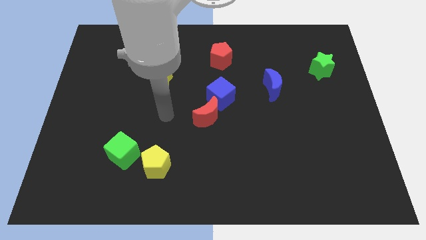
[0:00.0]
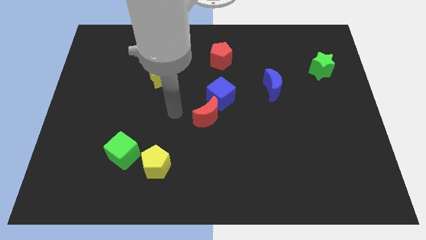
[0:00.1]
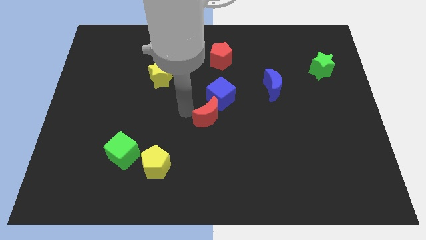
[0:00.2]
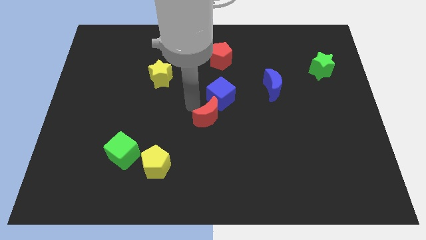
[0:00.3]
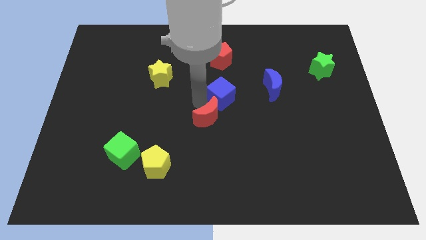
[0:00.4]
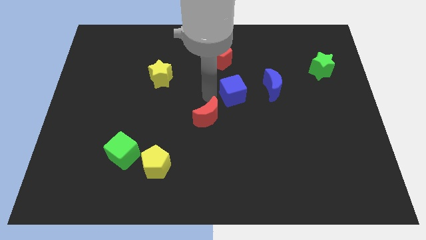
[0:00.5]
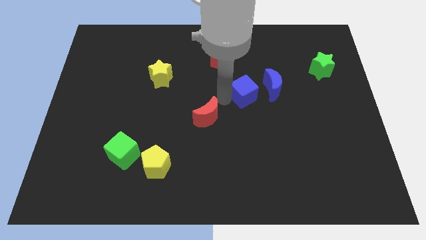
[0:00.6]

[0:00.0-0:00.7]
pull the red moon apart from the blue cube

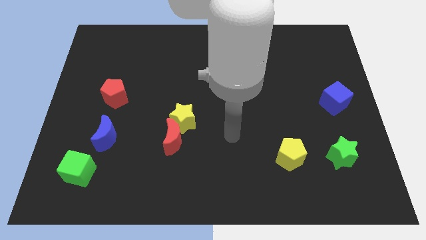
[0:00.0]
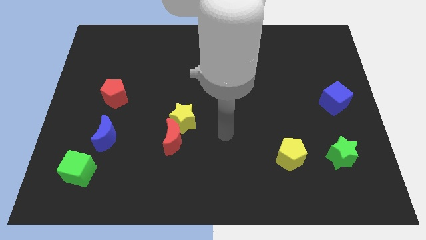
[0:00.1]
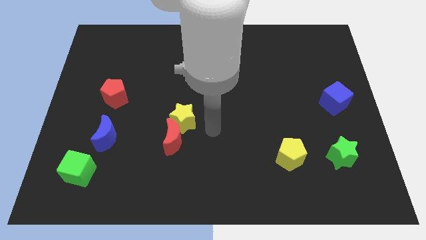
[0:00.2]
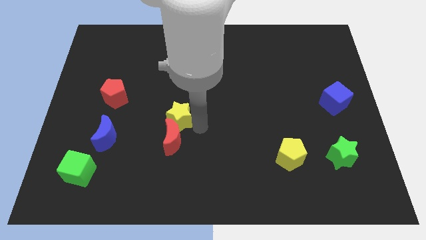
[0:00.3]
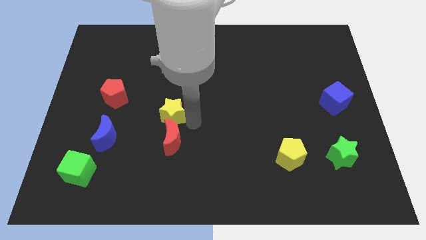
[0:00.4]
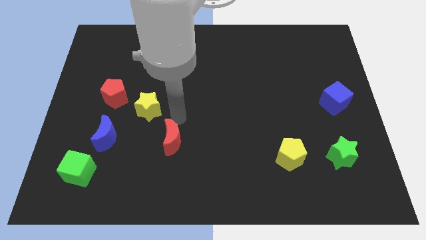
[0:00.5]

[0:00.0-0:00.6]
separate the red moon from the yellow star

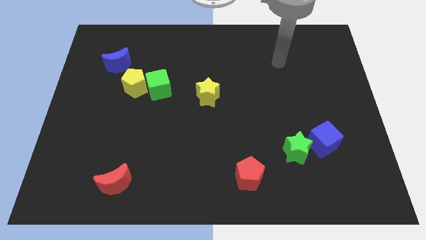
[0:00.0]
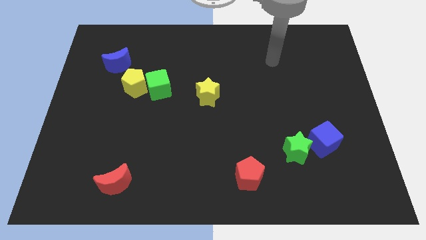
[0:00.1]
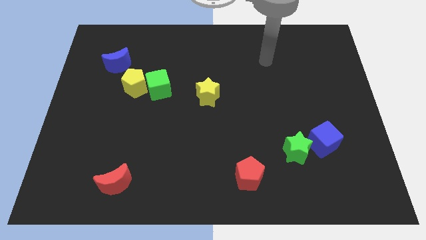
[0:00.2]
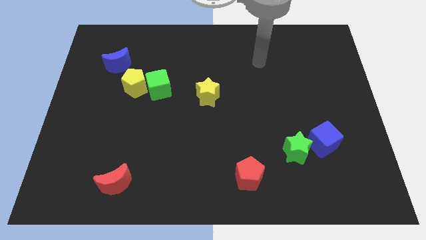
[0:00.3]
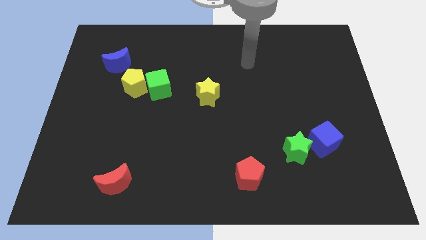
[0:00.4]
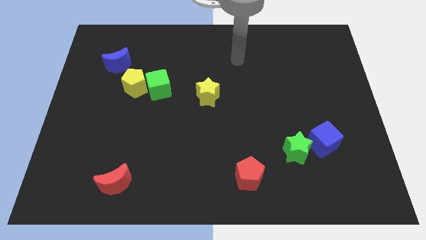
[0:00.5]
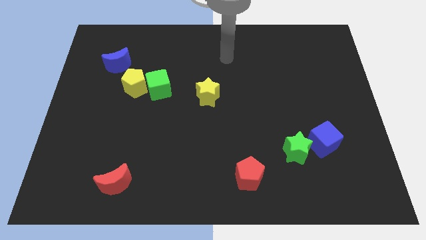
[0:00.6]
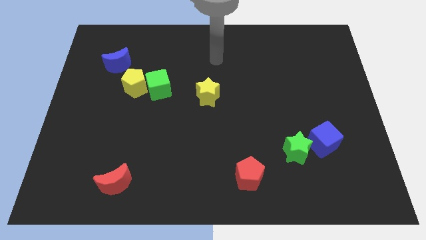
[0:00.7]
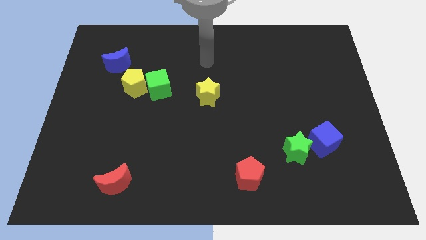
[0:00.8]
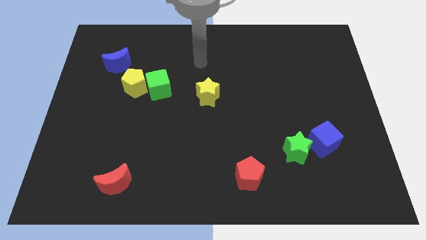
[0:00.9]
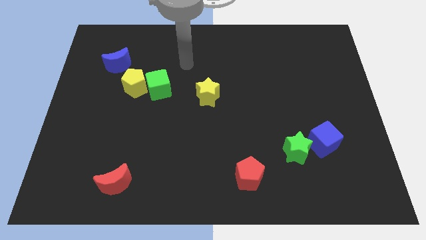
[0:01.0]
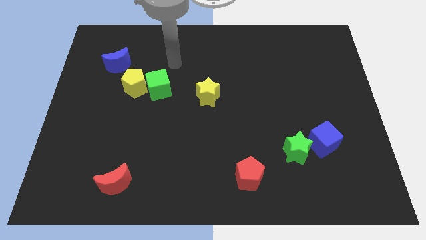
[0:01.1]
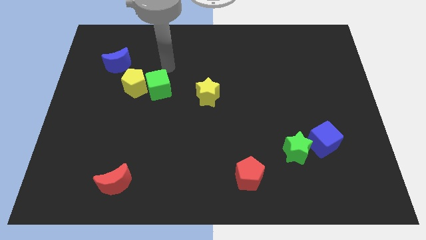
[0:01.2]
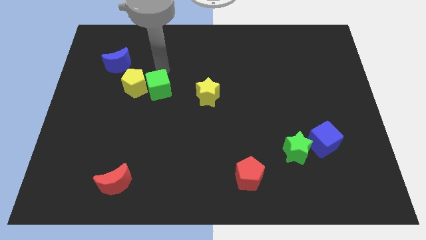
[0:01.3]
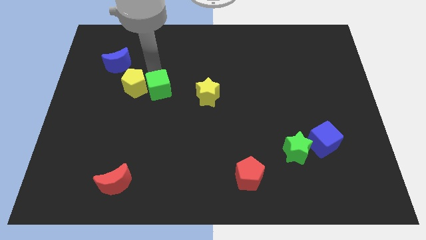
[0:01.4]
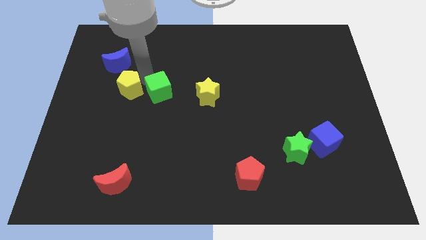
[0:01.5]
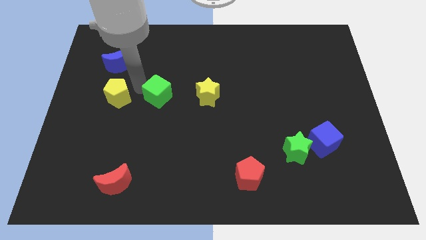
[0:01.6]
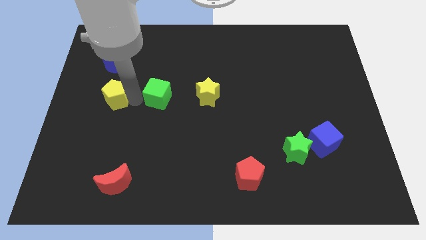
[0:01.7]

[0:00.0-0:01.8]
separate the green cube from the yellow pentagon

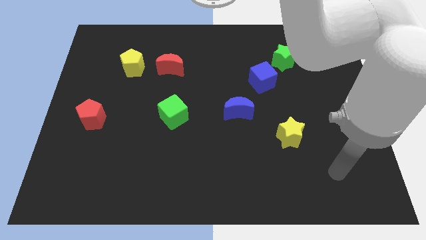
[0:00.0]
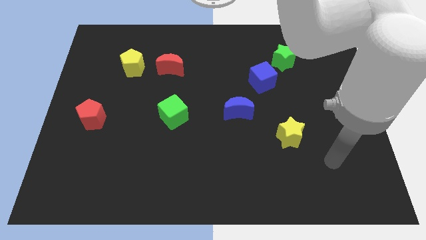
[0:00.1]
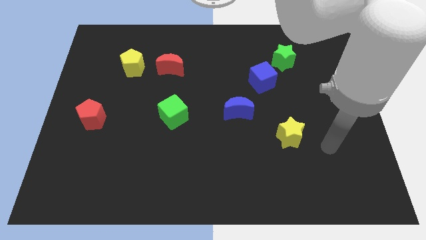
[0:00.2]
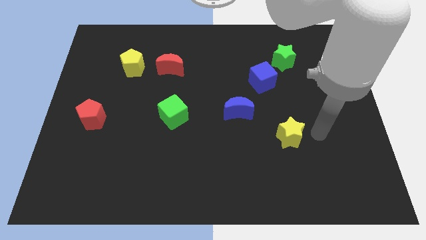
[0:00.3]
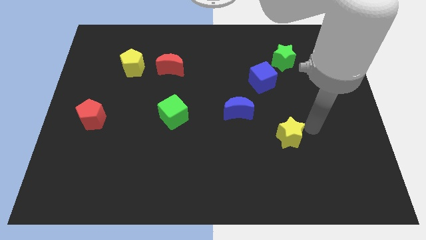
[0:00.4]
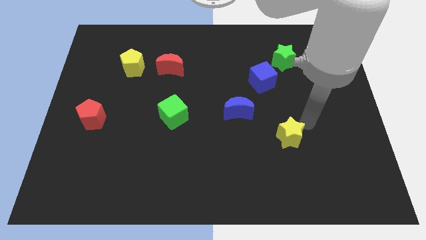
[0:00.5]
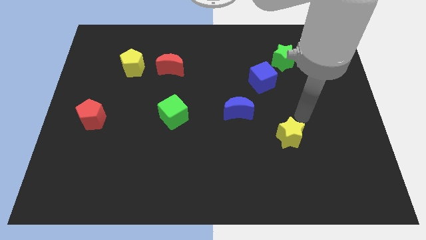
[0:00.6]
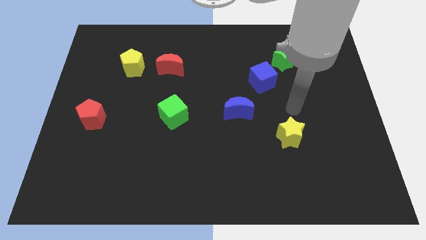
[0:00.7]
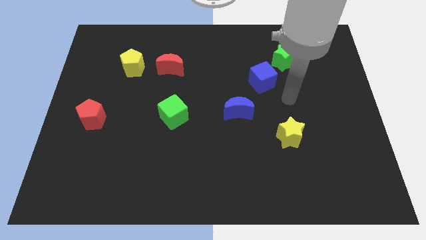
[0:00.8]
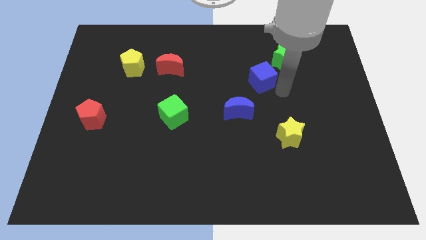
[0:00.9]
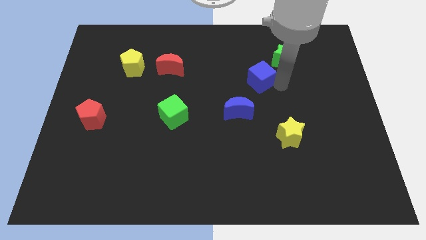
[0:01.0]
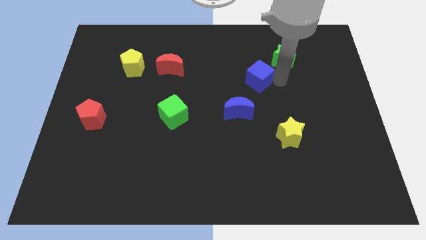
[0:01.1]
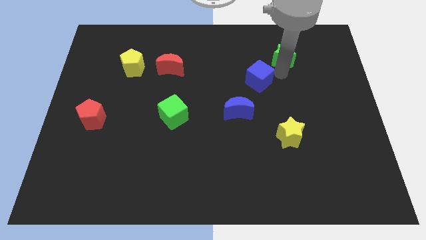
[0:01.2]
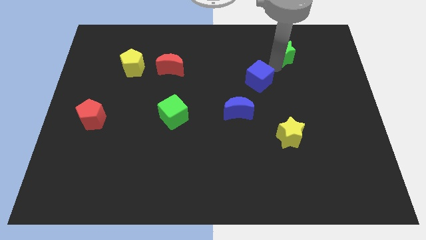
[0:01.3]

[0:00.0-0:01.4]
move the blue cube away from the green star

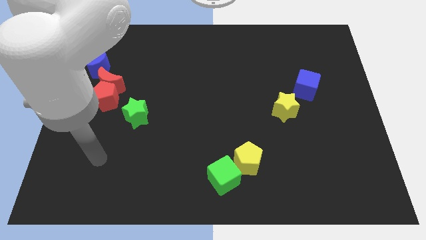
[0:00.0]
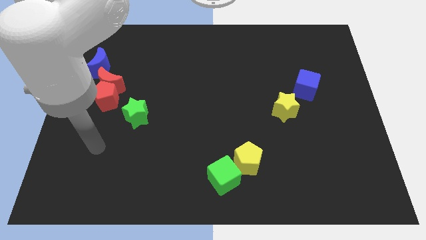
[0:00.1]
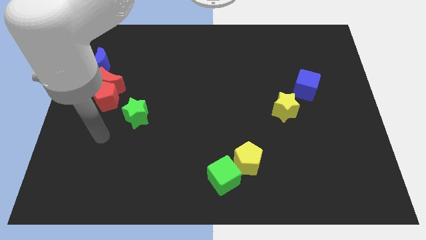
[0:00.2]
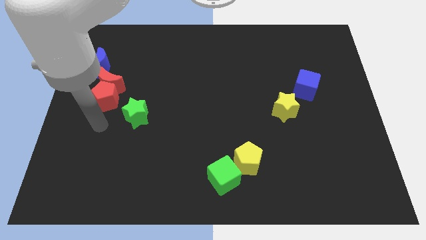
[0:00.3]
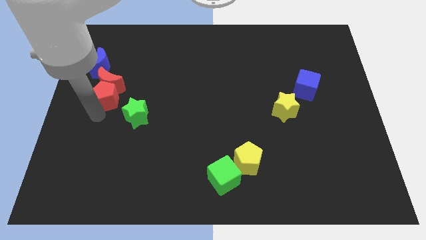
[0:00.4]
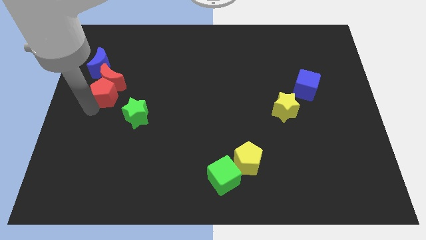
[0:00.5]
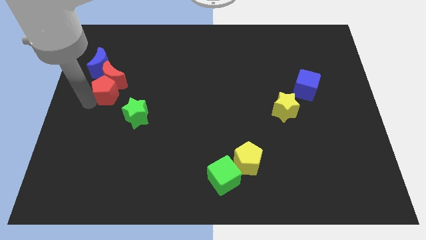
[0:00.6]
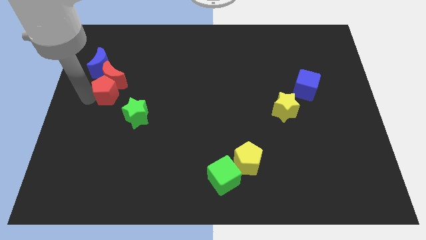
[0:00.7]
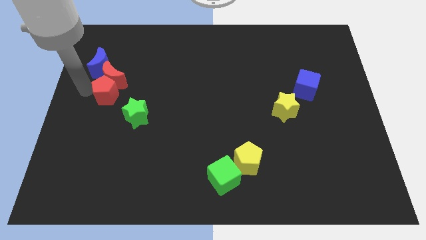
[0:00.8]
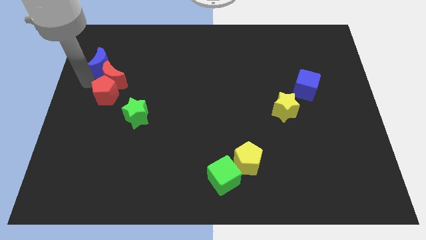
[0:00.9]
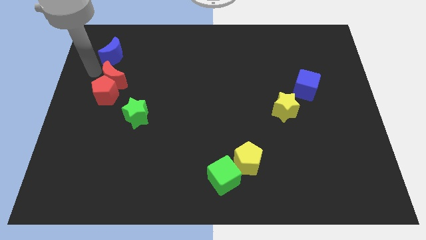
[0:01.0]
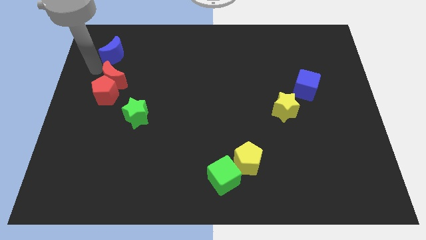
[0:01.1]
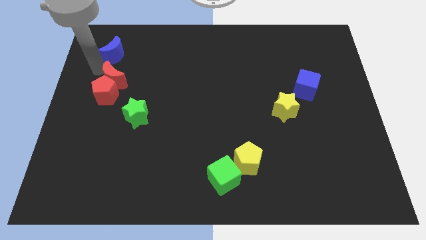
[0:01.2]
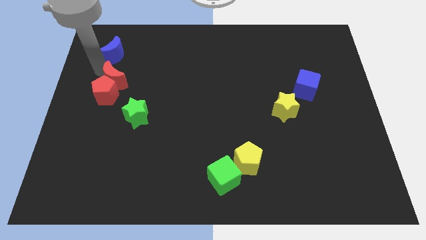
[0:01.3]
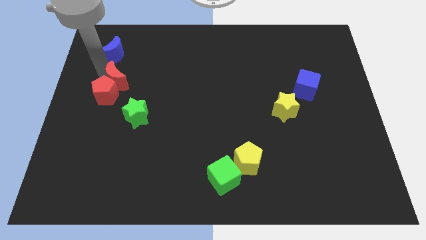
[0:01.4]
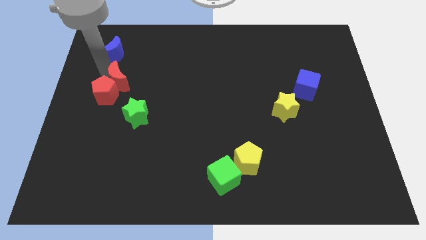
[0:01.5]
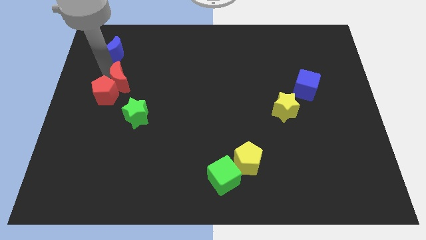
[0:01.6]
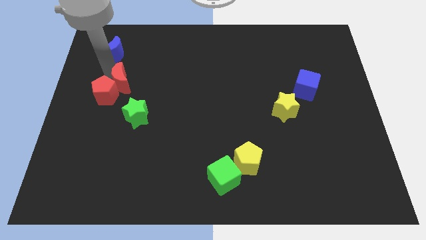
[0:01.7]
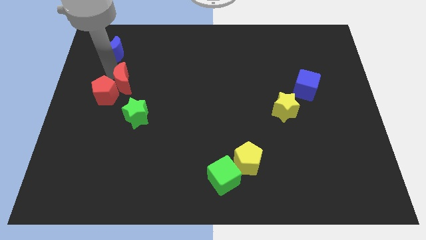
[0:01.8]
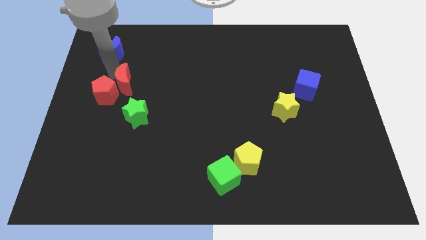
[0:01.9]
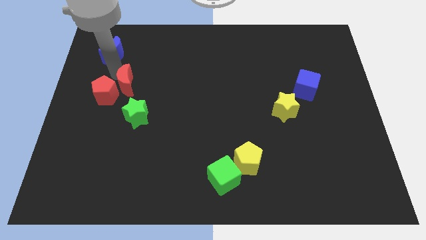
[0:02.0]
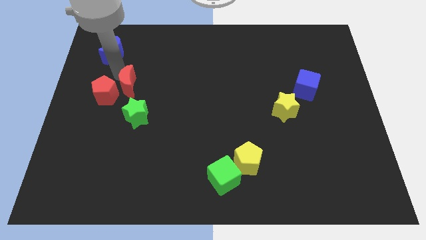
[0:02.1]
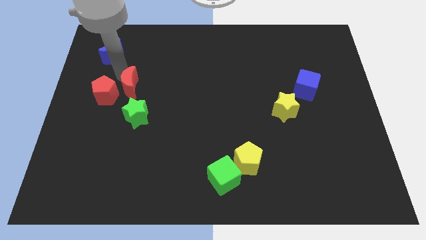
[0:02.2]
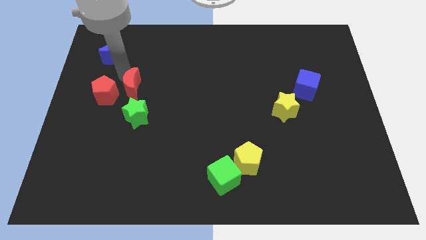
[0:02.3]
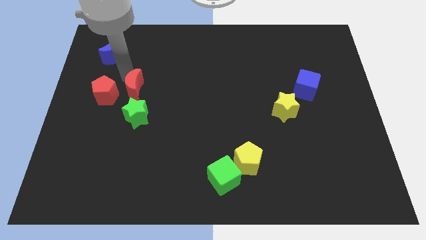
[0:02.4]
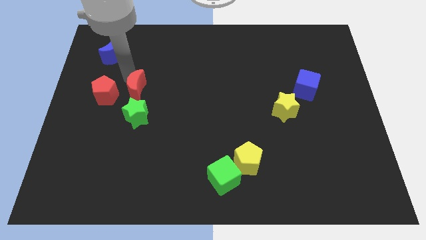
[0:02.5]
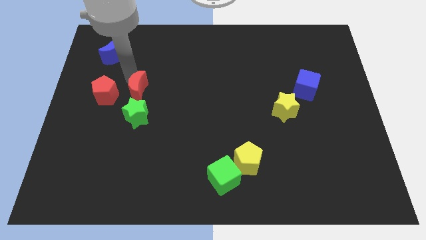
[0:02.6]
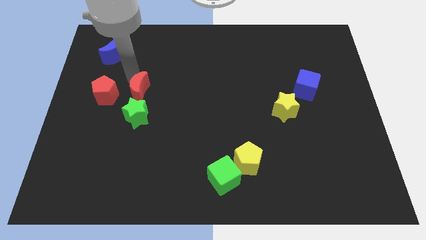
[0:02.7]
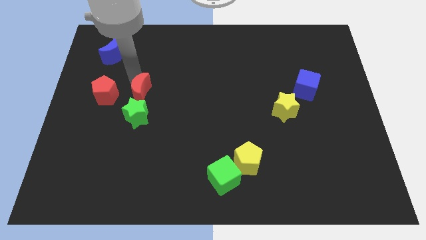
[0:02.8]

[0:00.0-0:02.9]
pull the red moon apart from the red pentagon and blue moon

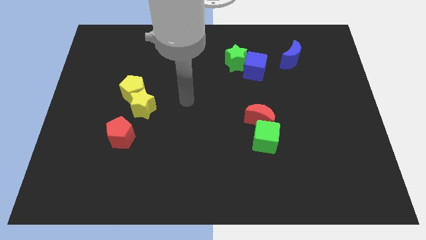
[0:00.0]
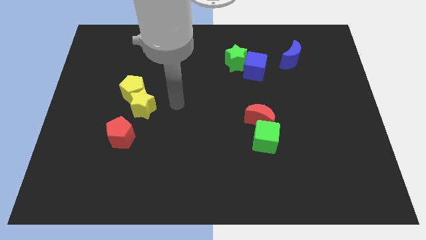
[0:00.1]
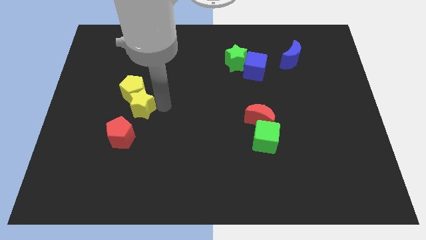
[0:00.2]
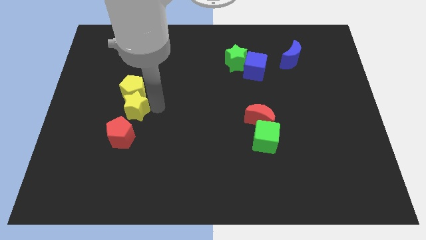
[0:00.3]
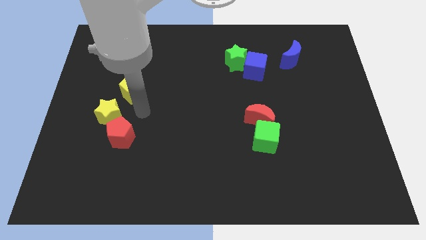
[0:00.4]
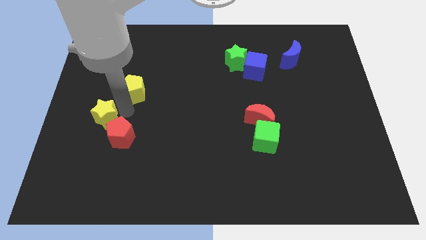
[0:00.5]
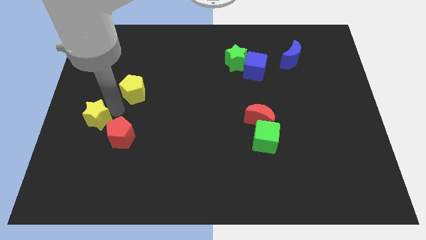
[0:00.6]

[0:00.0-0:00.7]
move the yellow pentagon away from the yellow star

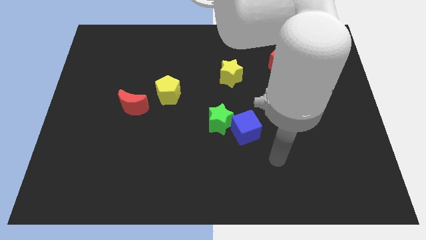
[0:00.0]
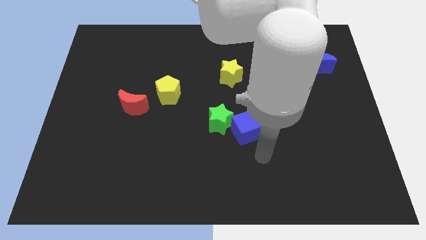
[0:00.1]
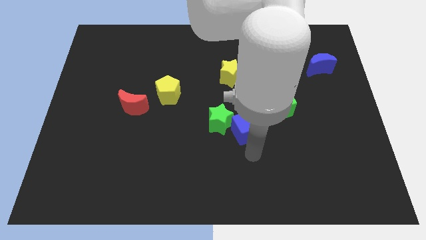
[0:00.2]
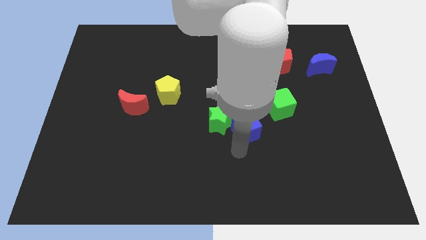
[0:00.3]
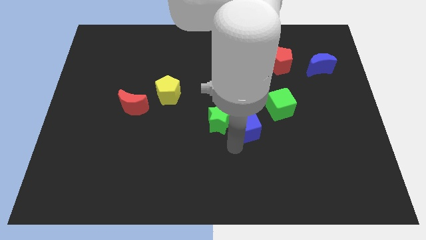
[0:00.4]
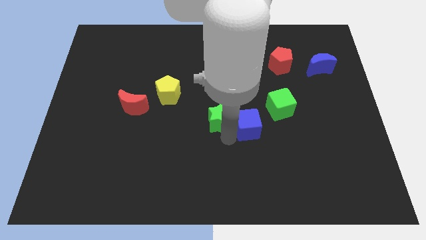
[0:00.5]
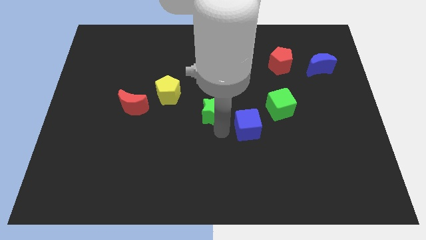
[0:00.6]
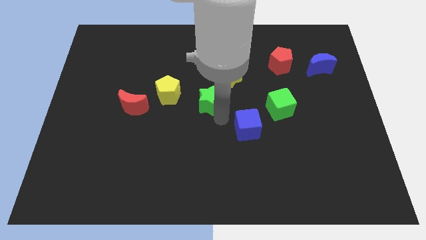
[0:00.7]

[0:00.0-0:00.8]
pull the blue cube apart from the green star

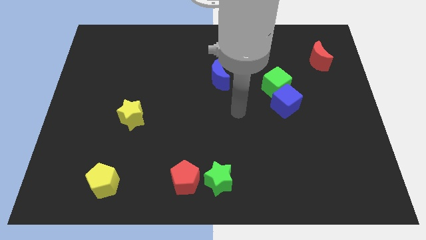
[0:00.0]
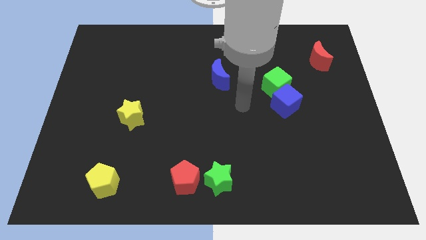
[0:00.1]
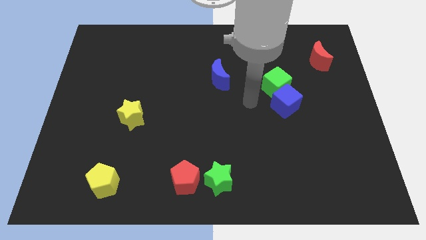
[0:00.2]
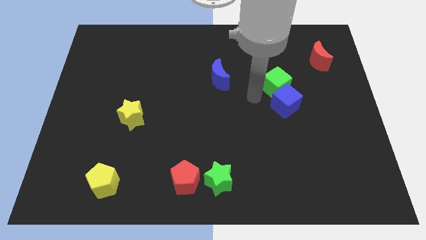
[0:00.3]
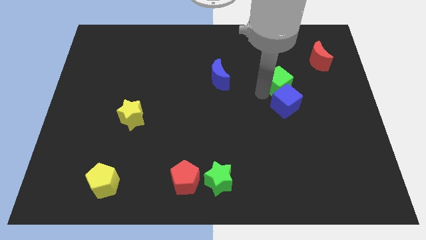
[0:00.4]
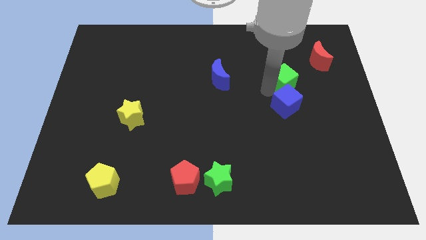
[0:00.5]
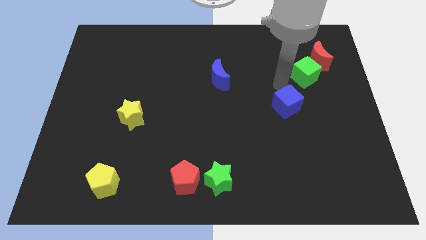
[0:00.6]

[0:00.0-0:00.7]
pull the blue cube apart from the green cube
